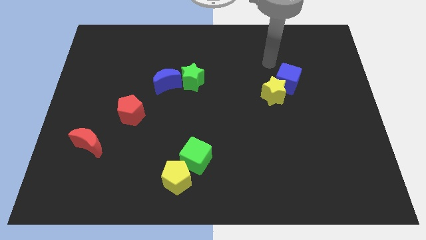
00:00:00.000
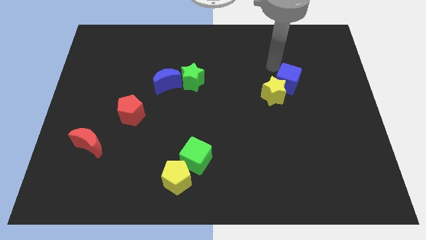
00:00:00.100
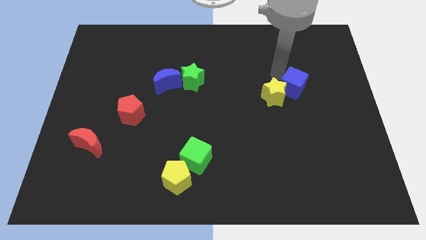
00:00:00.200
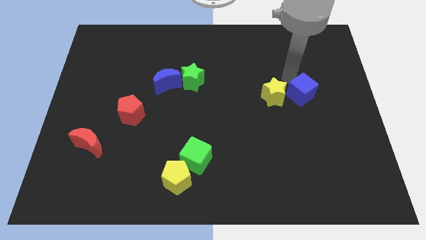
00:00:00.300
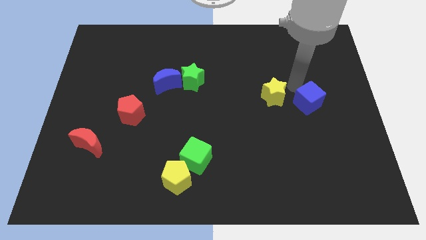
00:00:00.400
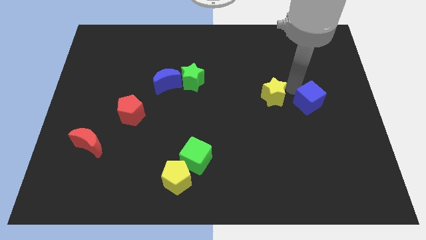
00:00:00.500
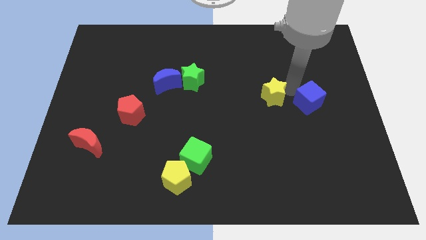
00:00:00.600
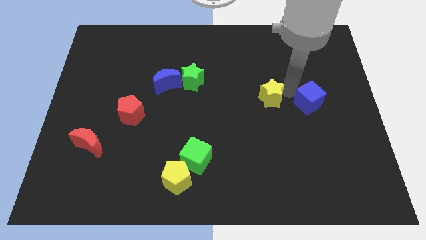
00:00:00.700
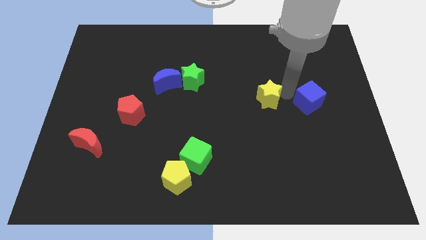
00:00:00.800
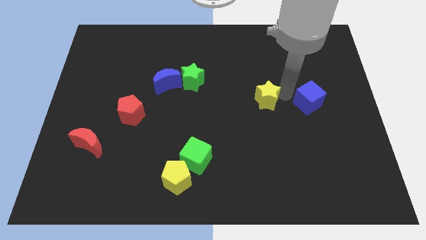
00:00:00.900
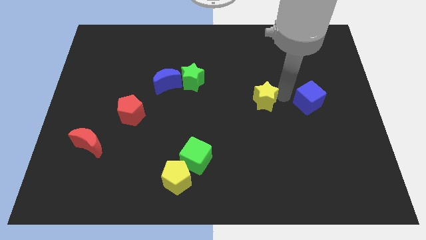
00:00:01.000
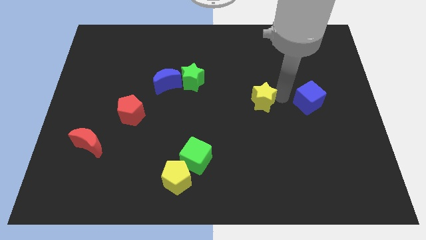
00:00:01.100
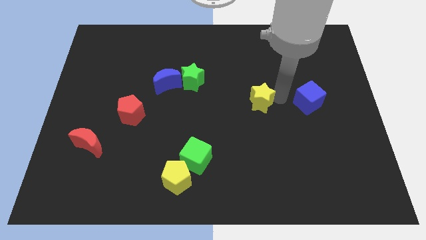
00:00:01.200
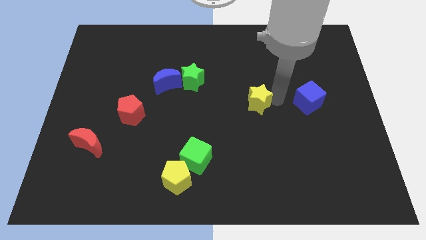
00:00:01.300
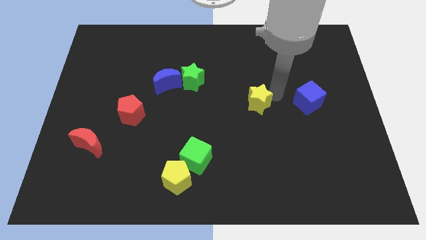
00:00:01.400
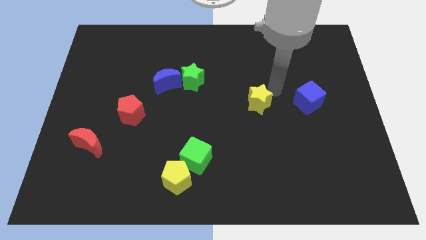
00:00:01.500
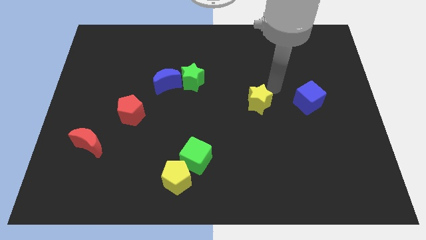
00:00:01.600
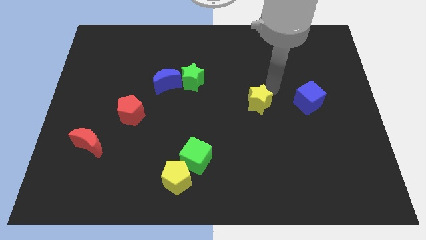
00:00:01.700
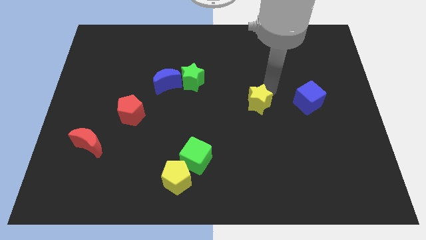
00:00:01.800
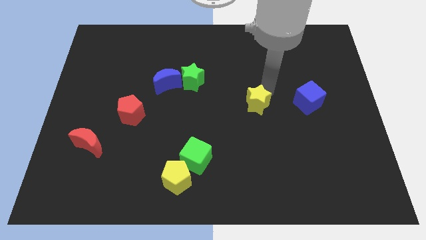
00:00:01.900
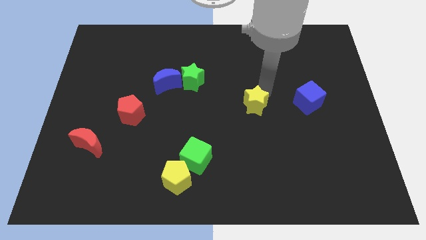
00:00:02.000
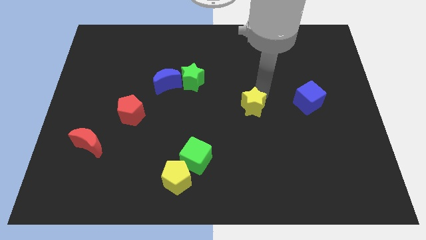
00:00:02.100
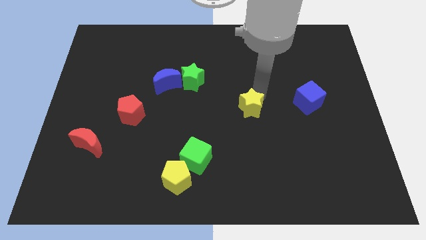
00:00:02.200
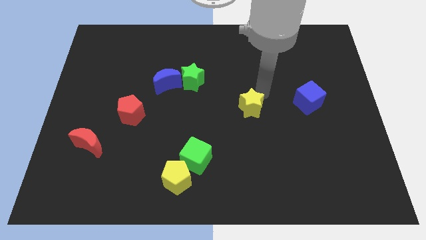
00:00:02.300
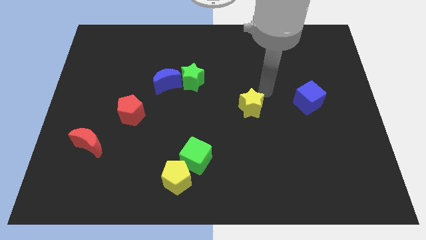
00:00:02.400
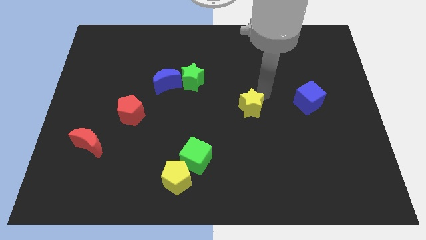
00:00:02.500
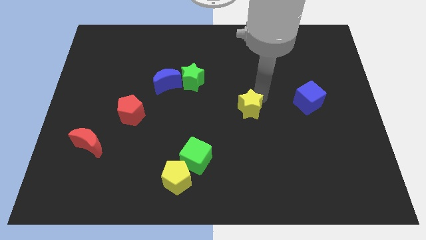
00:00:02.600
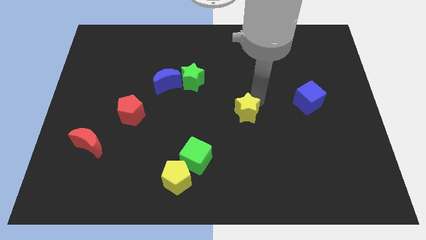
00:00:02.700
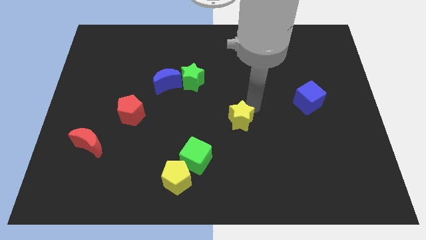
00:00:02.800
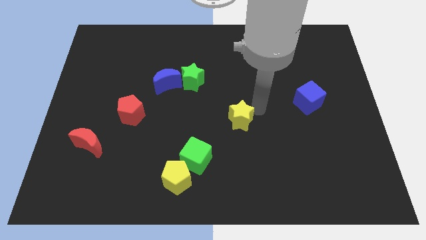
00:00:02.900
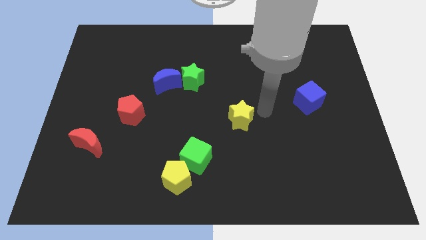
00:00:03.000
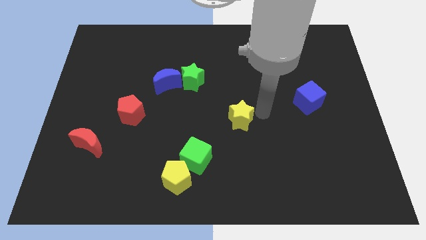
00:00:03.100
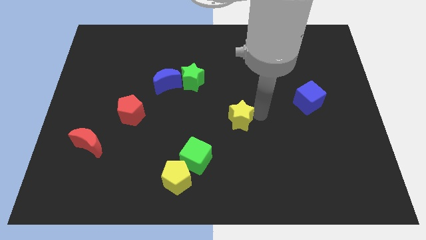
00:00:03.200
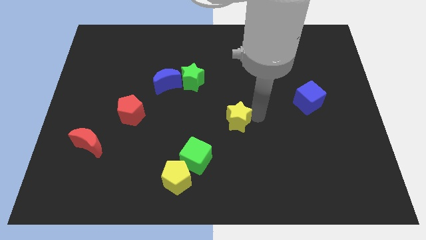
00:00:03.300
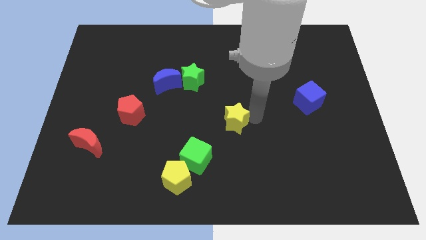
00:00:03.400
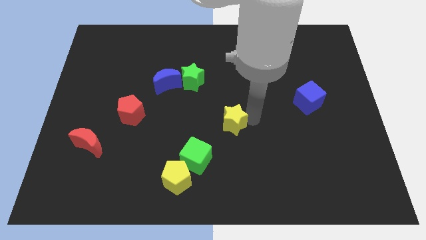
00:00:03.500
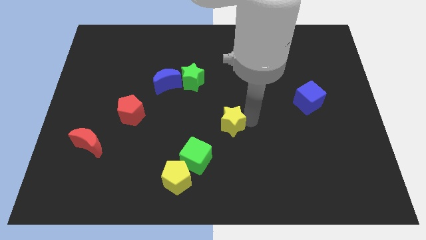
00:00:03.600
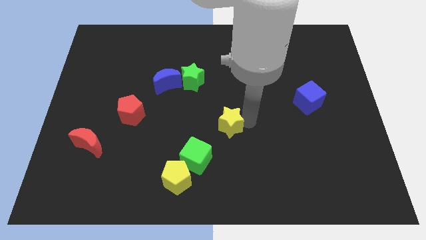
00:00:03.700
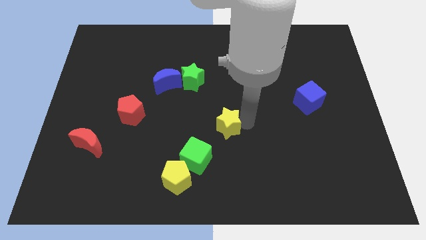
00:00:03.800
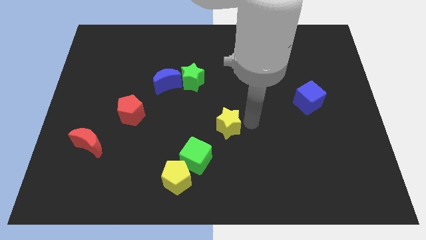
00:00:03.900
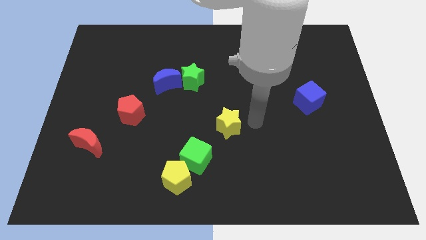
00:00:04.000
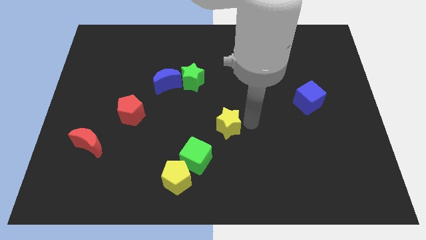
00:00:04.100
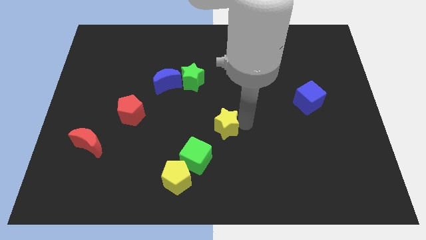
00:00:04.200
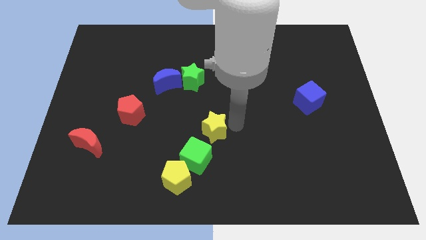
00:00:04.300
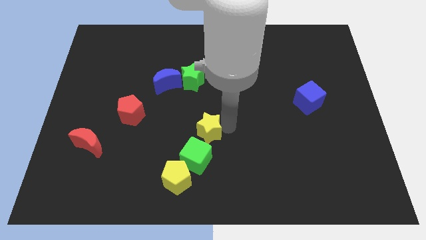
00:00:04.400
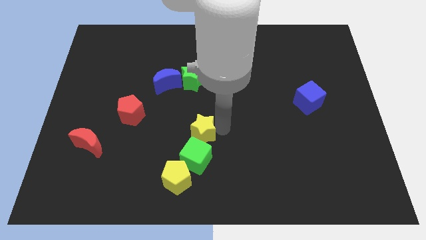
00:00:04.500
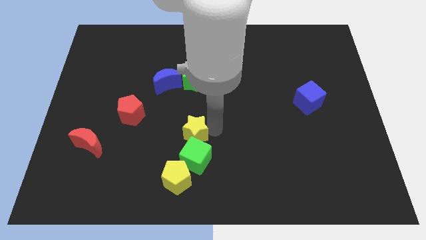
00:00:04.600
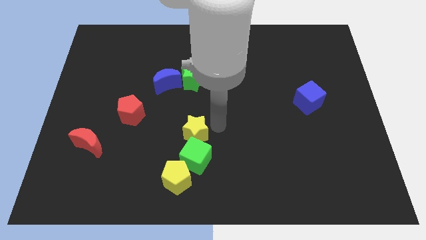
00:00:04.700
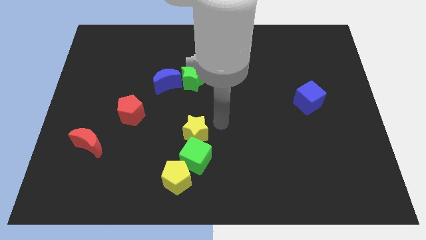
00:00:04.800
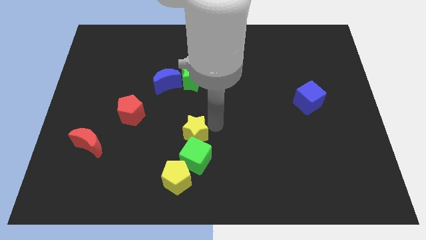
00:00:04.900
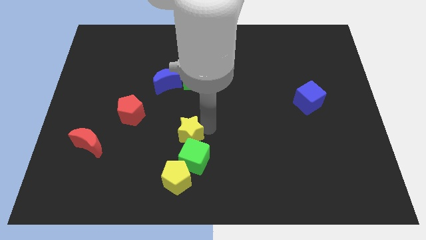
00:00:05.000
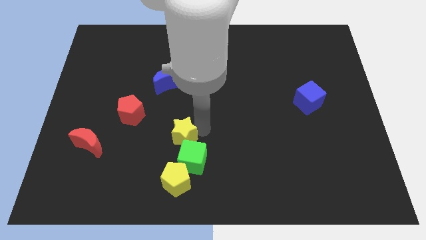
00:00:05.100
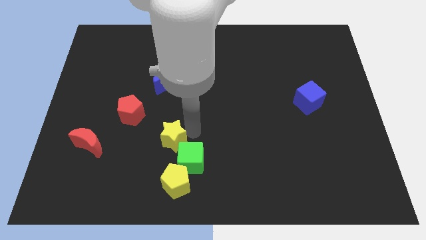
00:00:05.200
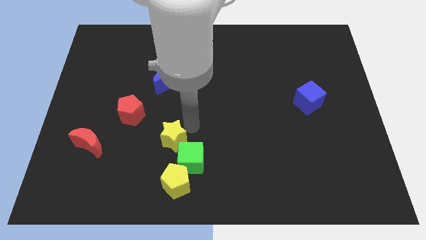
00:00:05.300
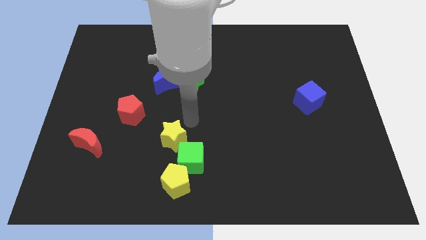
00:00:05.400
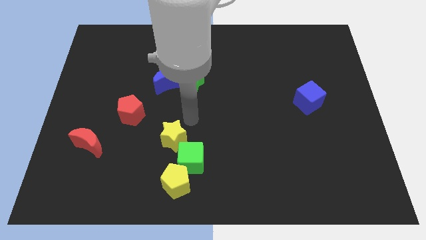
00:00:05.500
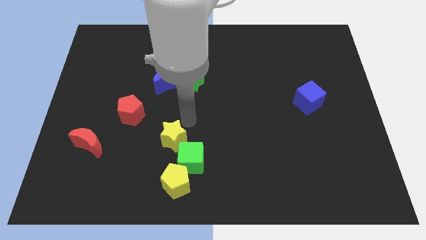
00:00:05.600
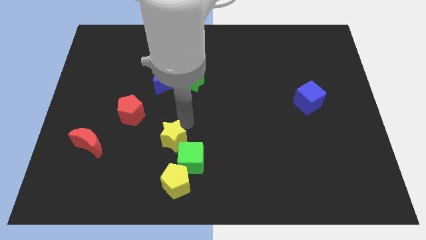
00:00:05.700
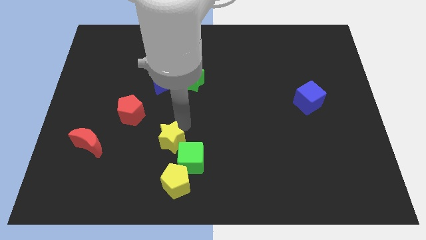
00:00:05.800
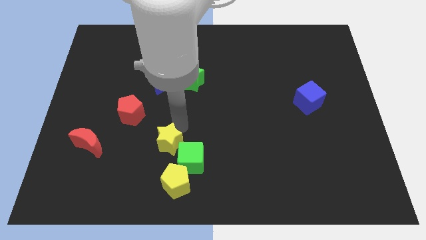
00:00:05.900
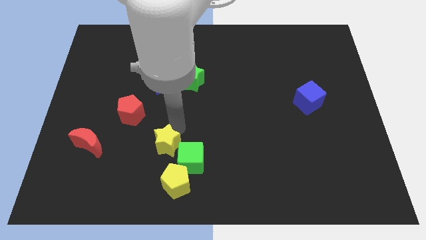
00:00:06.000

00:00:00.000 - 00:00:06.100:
slide the yellow star to the top left of the yellow pentagon
